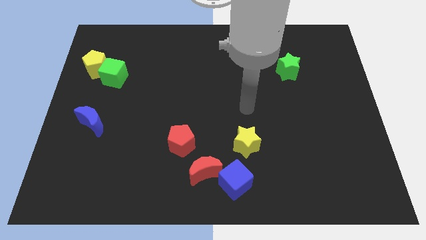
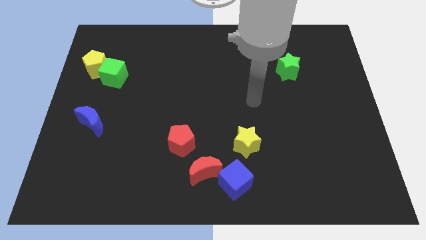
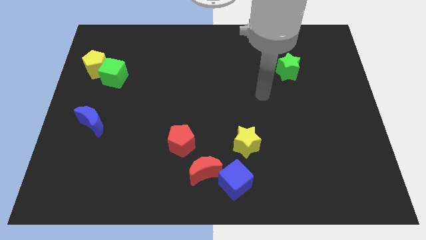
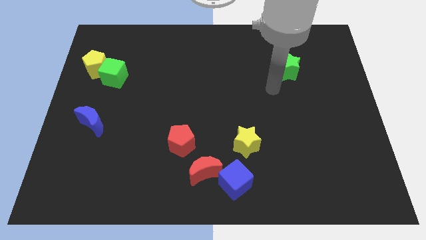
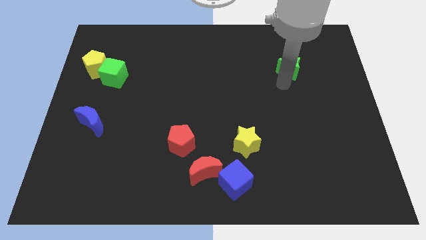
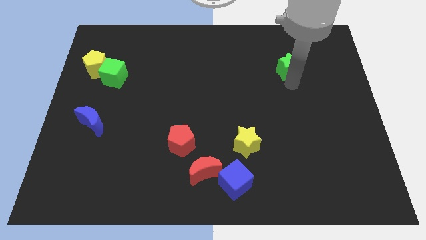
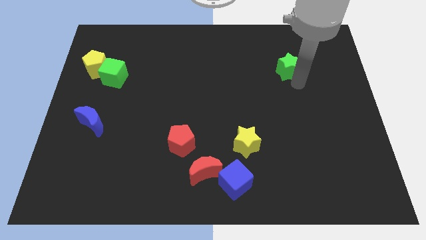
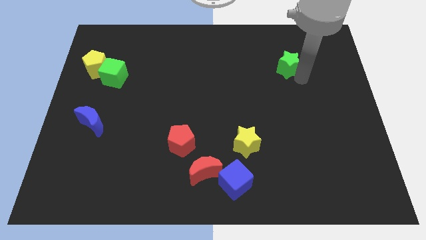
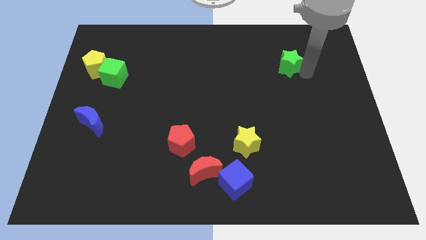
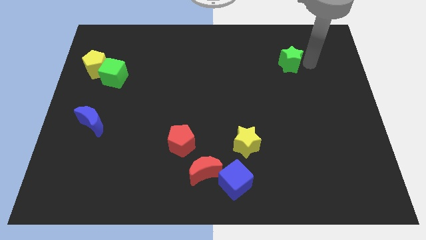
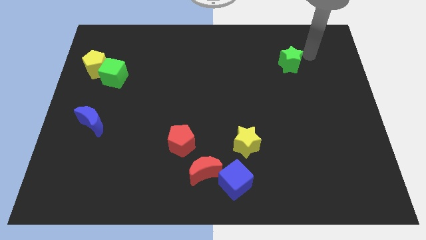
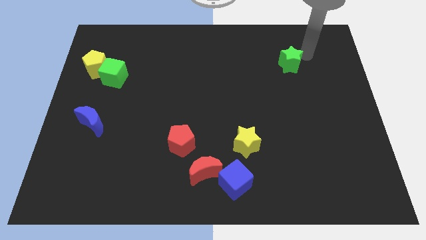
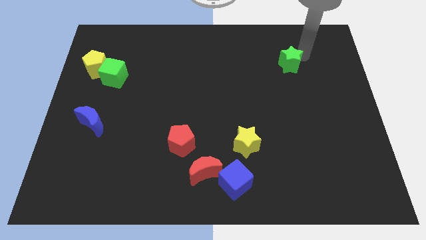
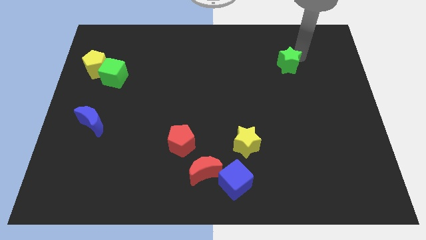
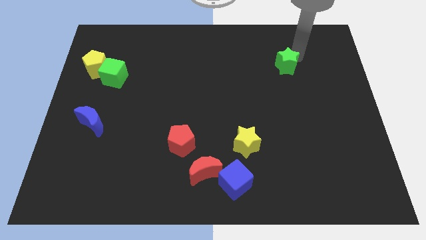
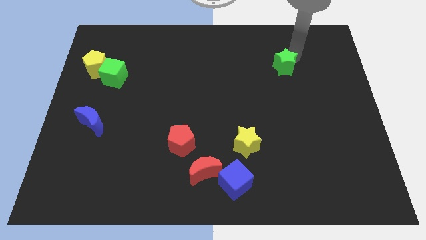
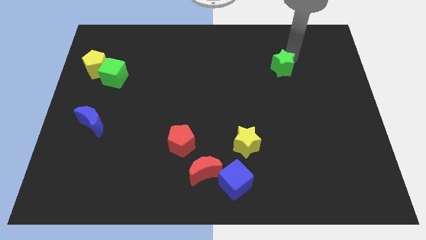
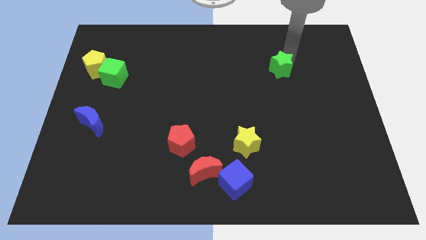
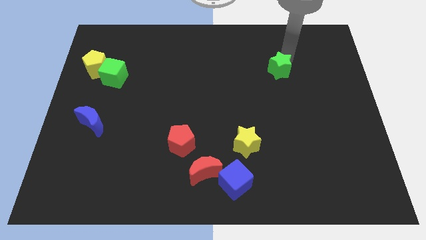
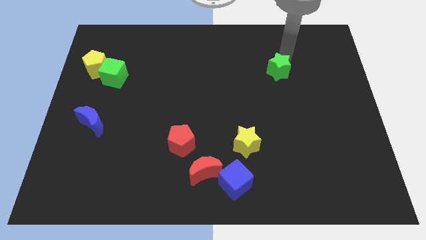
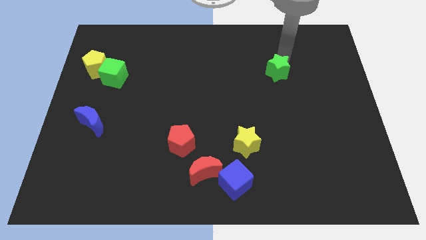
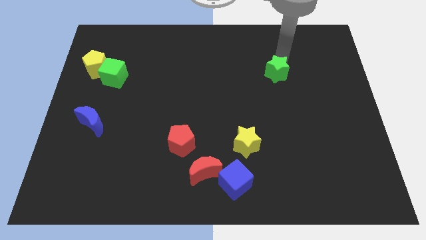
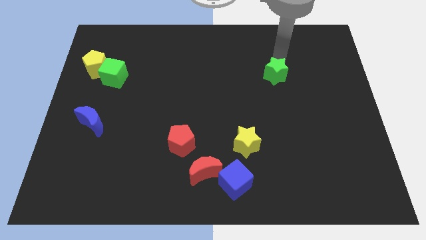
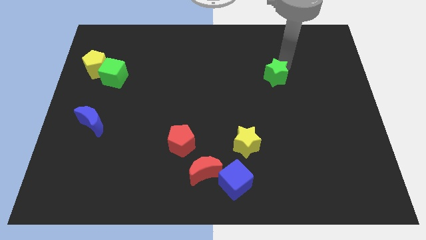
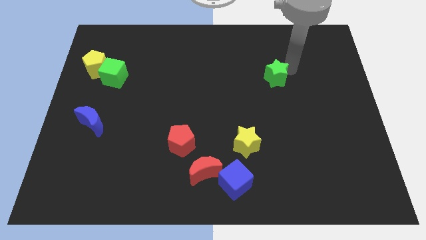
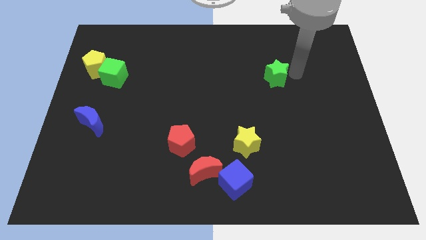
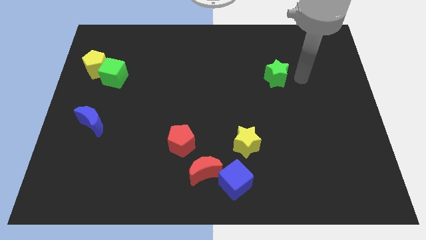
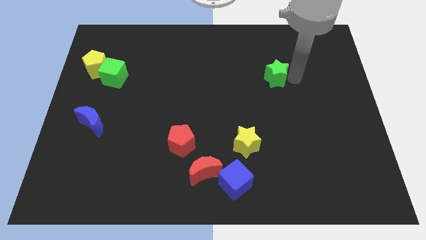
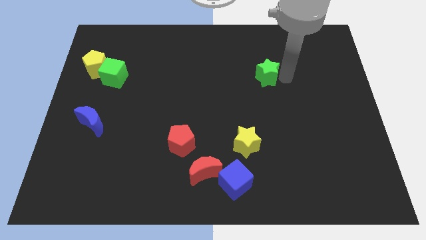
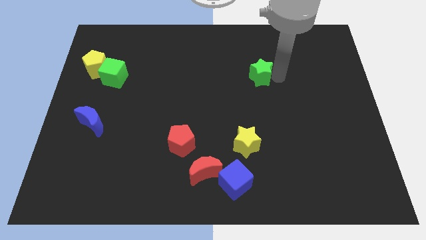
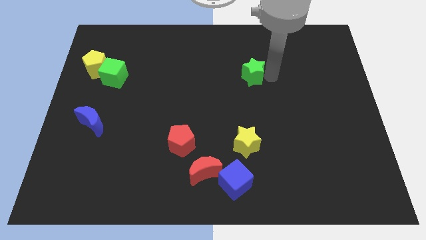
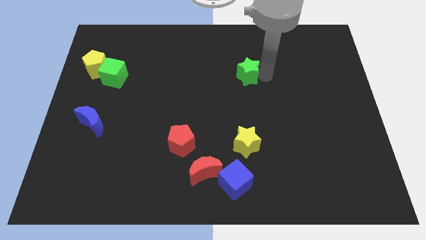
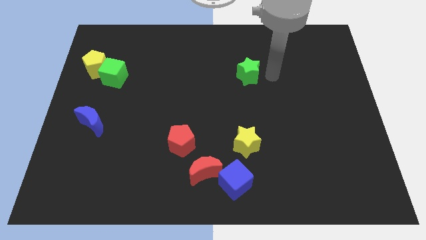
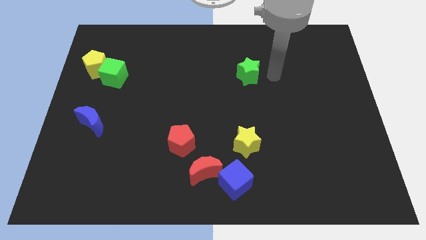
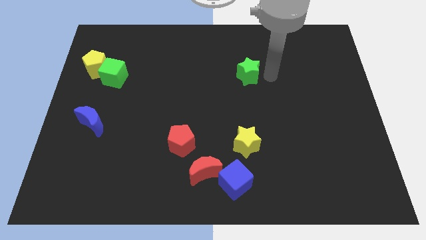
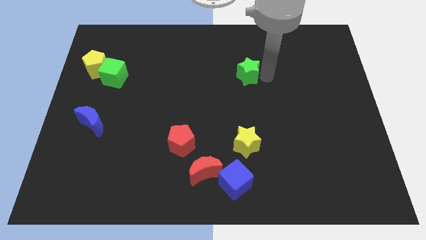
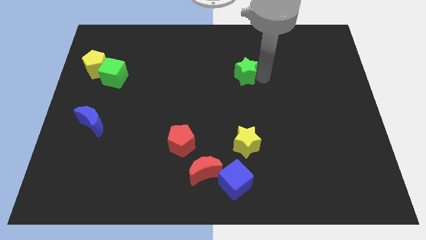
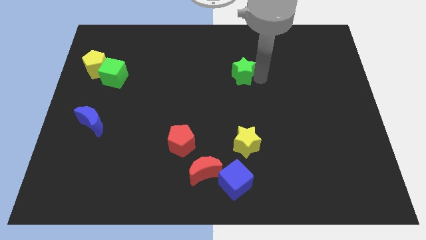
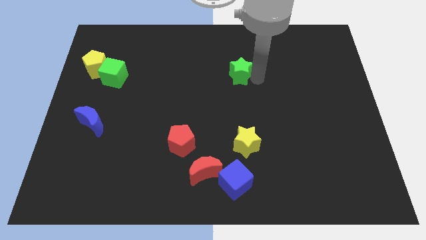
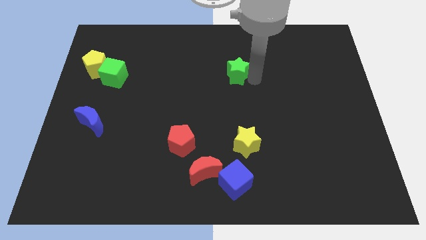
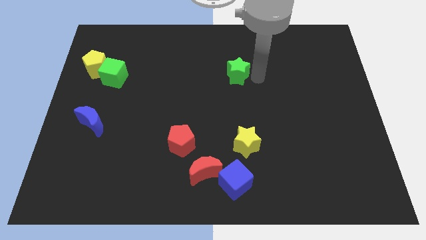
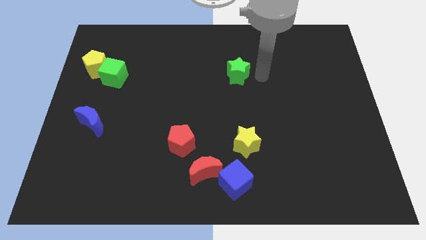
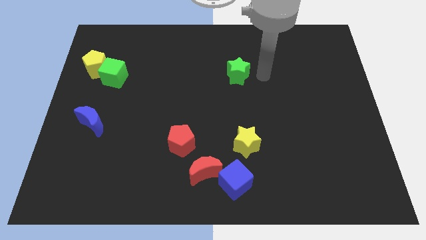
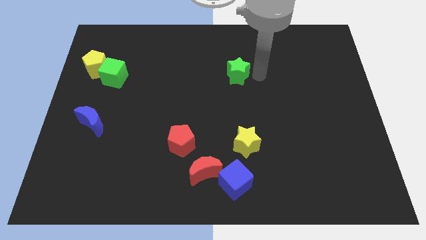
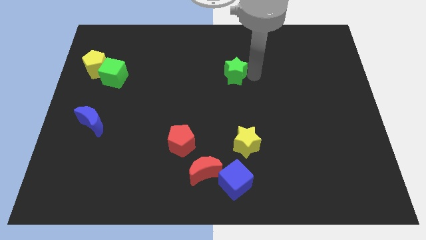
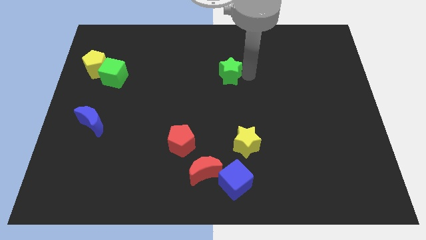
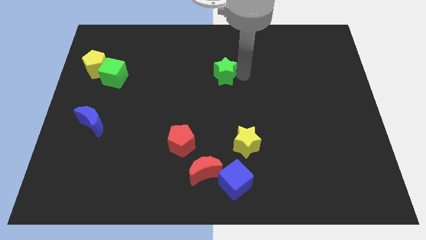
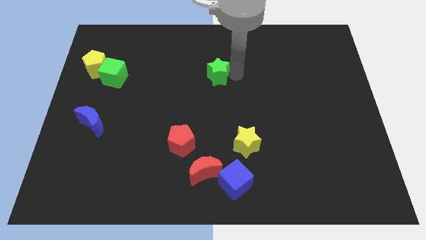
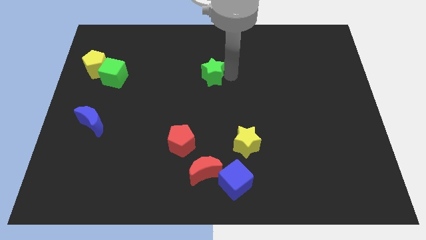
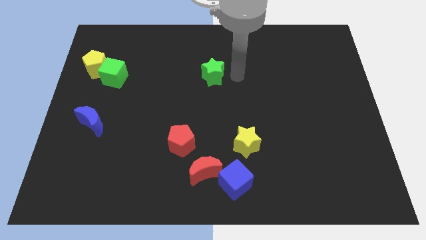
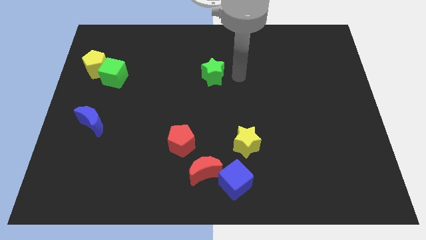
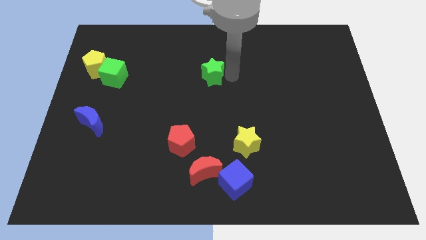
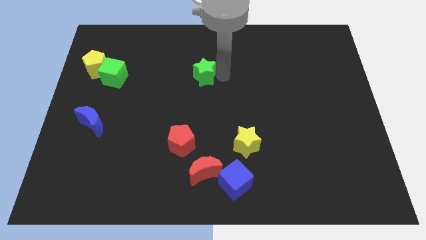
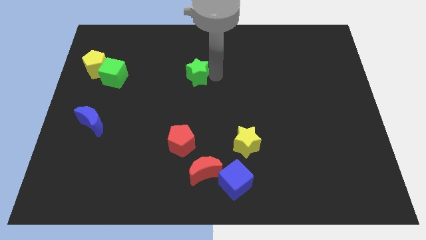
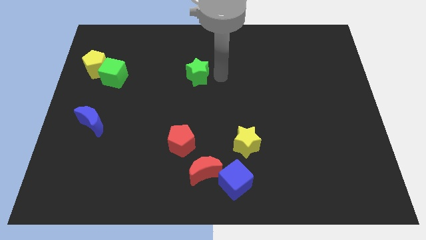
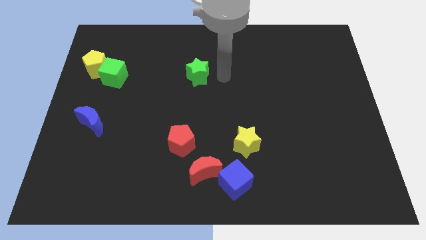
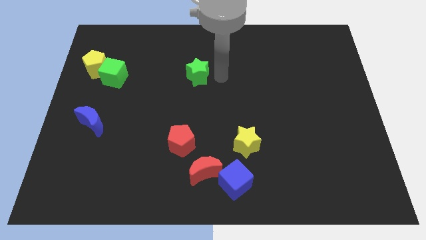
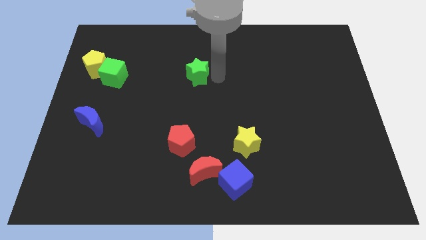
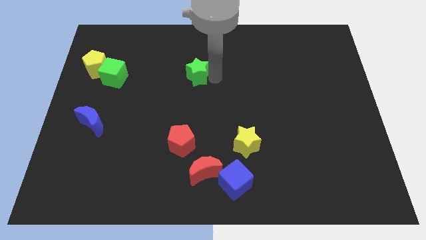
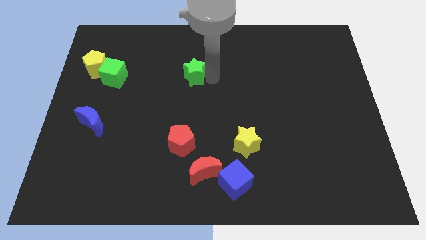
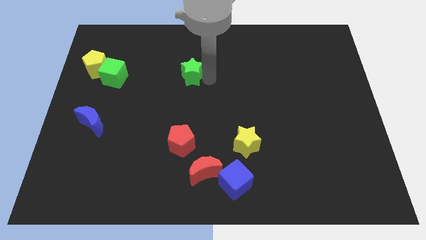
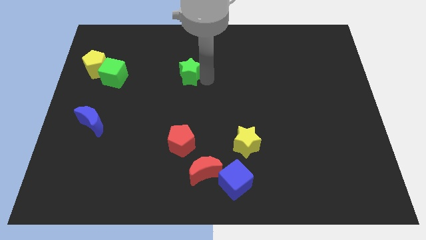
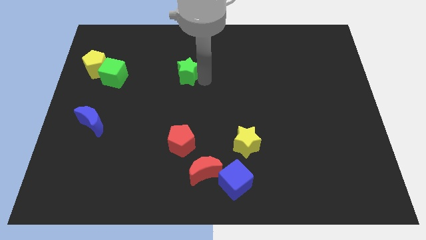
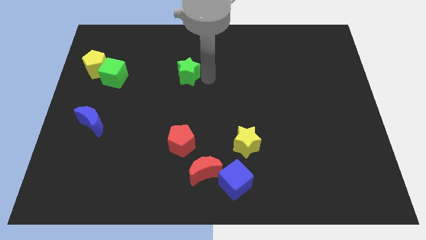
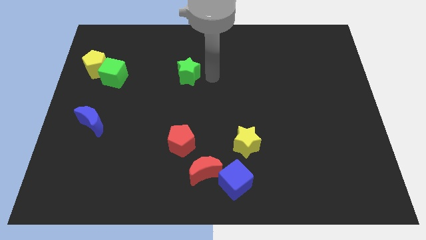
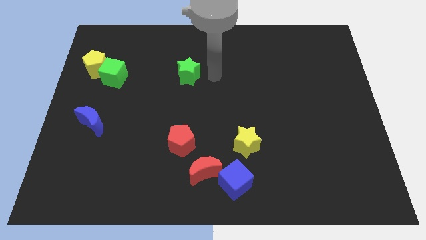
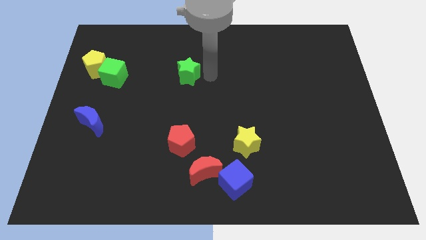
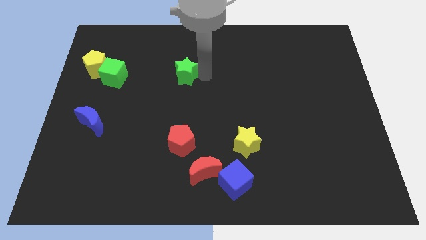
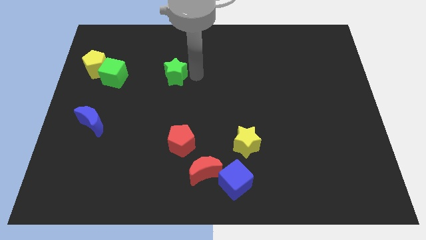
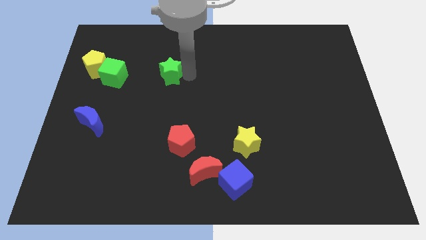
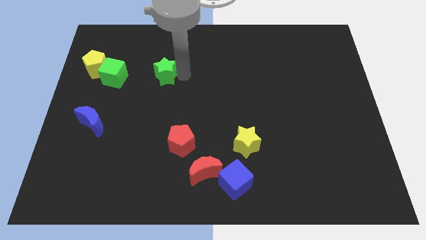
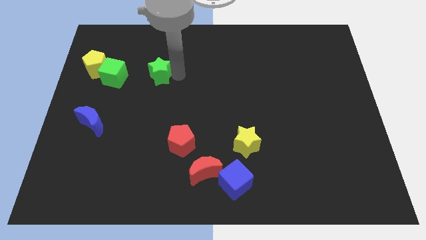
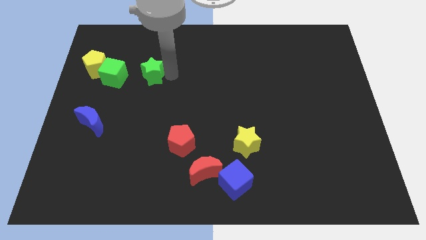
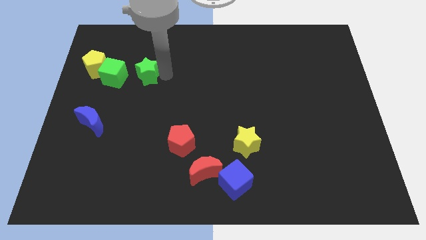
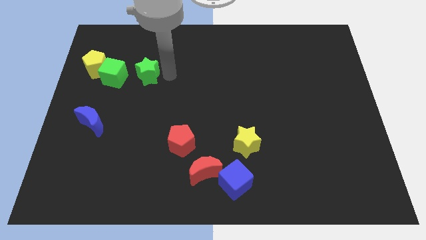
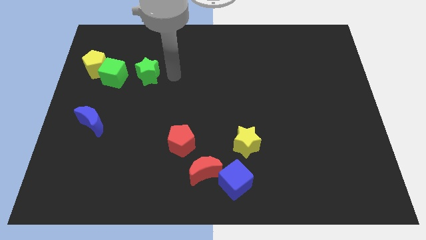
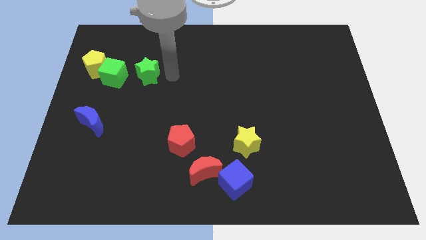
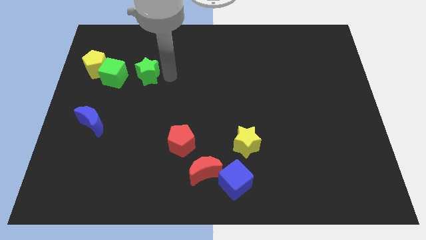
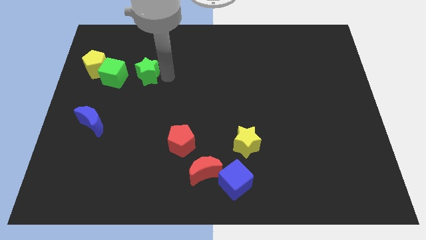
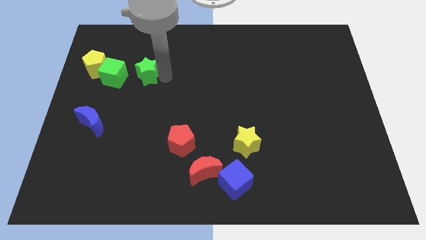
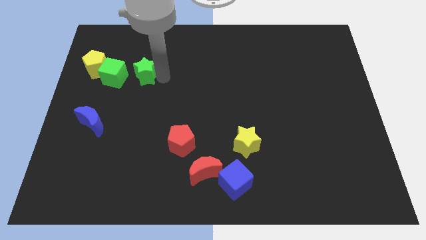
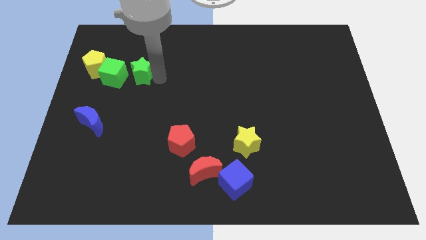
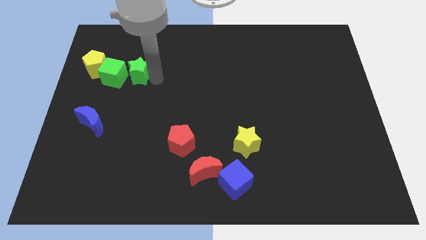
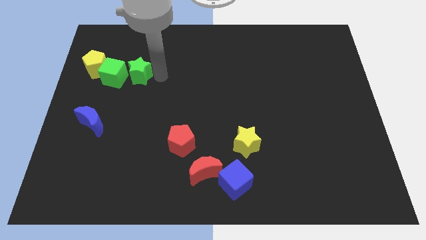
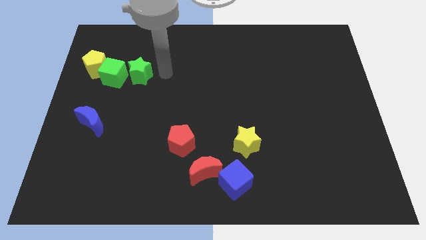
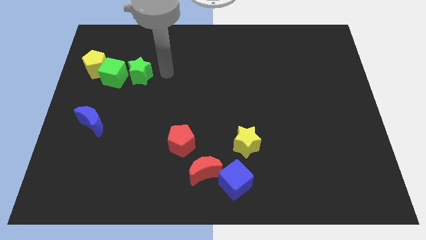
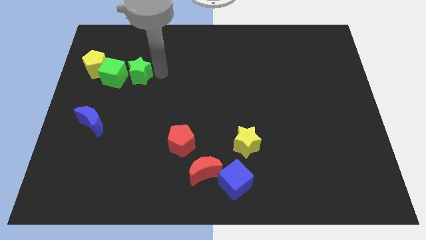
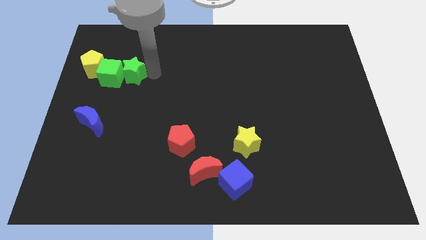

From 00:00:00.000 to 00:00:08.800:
move the green star next to the green cube
